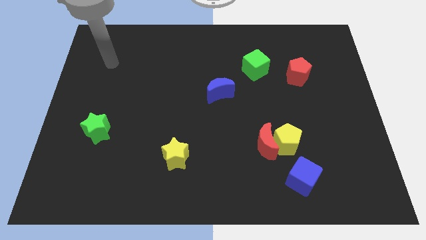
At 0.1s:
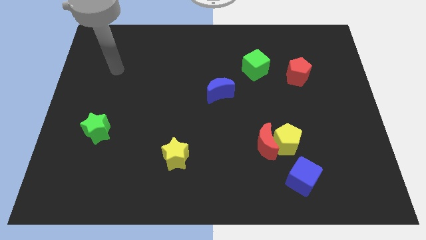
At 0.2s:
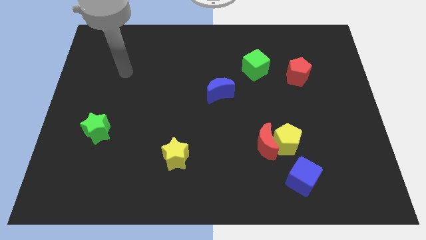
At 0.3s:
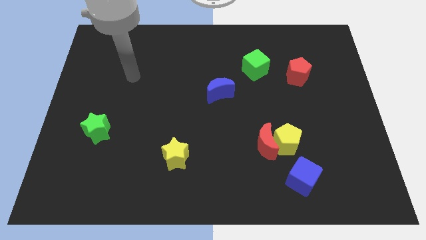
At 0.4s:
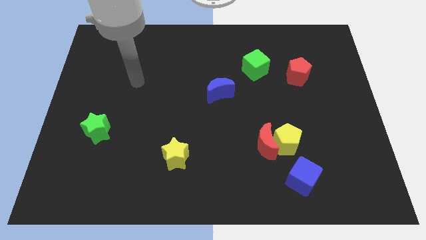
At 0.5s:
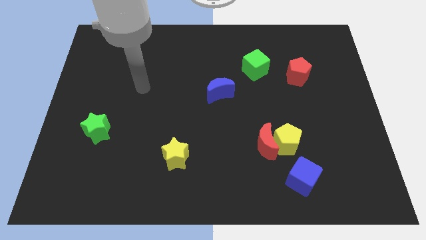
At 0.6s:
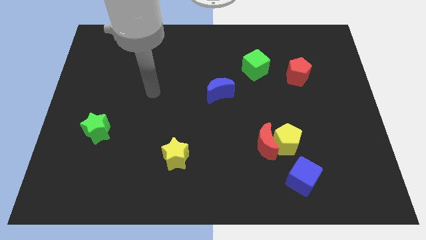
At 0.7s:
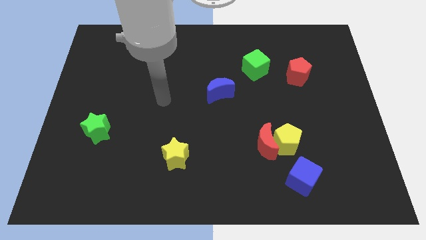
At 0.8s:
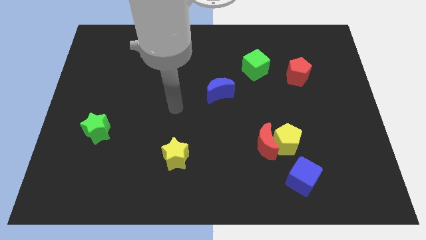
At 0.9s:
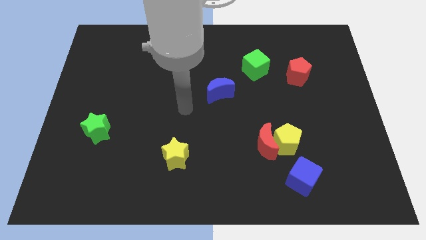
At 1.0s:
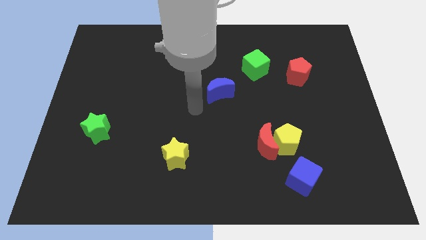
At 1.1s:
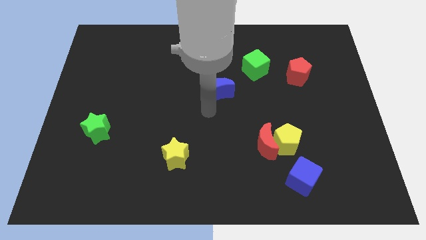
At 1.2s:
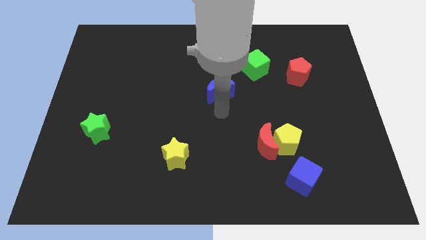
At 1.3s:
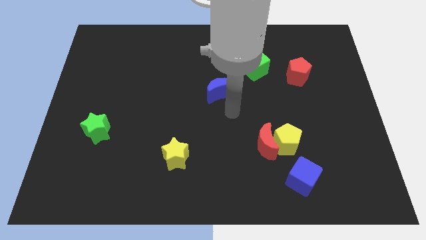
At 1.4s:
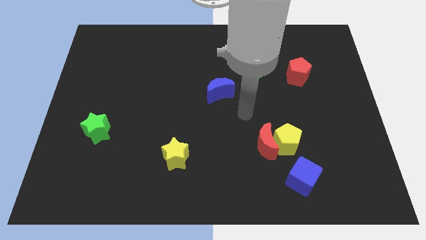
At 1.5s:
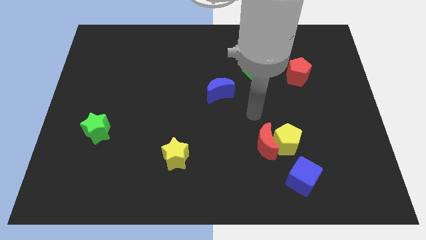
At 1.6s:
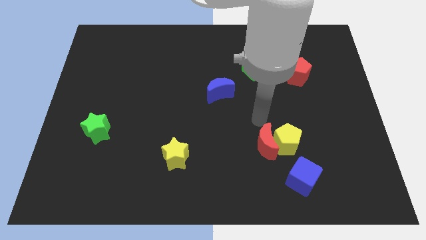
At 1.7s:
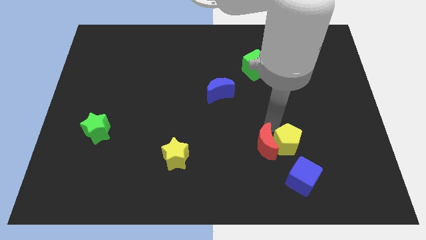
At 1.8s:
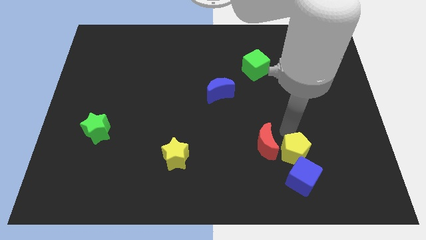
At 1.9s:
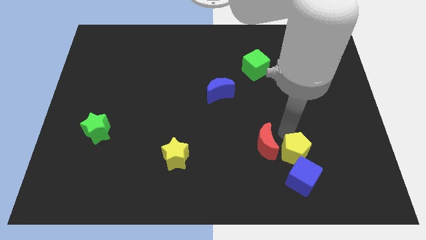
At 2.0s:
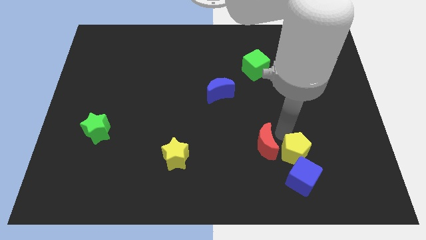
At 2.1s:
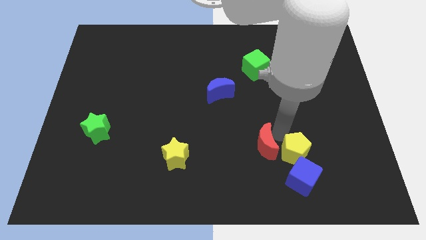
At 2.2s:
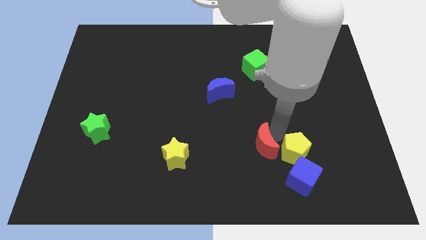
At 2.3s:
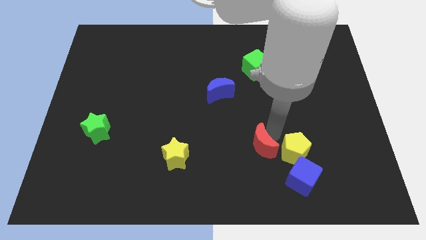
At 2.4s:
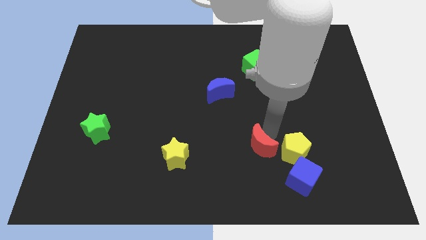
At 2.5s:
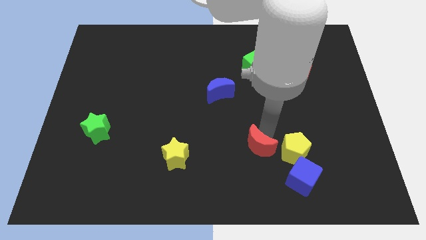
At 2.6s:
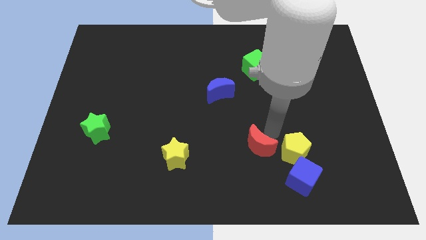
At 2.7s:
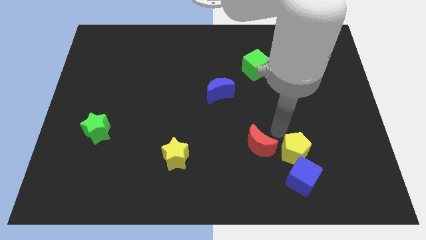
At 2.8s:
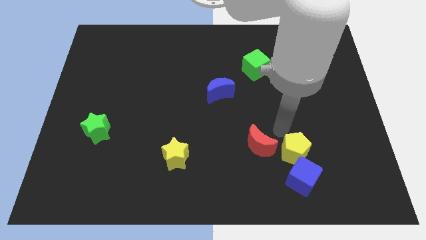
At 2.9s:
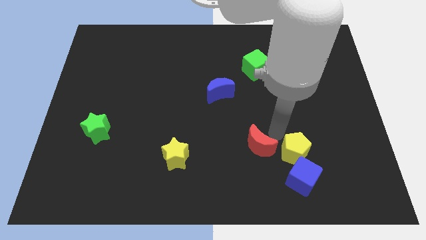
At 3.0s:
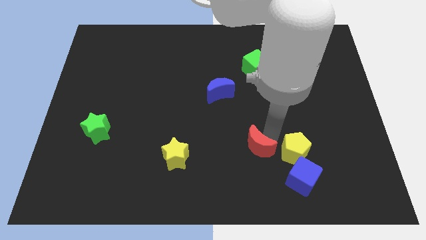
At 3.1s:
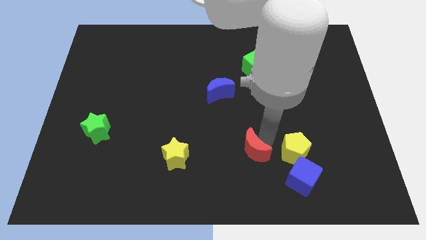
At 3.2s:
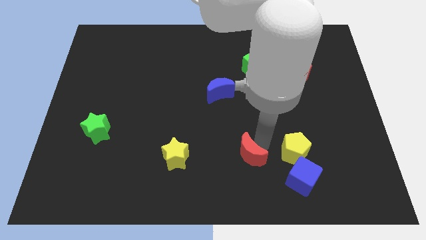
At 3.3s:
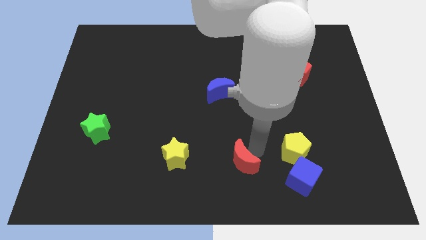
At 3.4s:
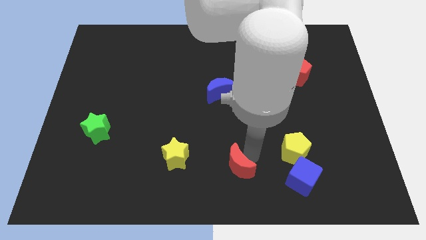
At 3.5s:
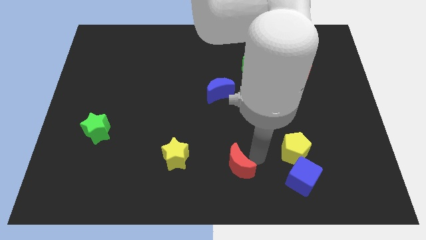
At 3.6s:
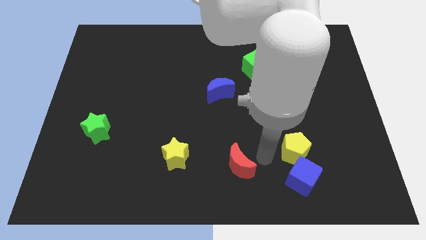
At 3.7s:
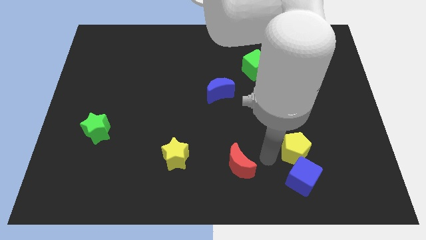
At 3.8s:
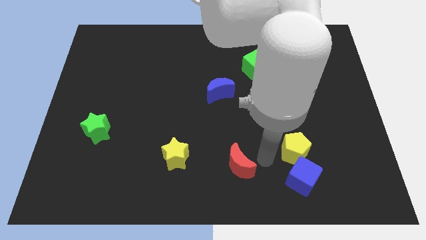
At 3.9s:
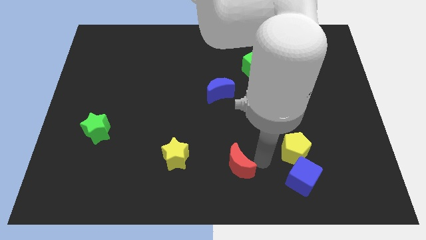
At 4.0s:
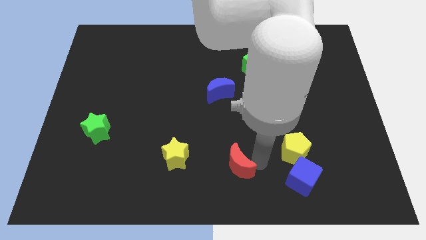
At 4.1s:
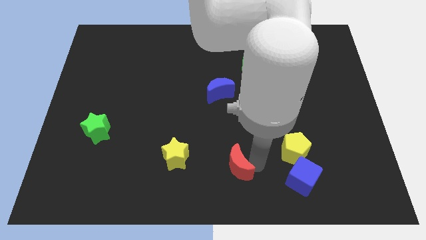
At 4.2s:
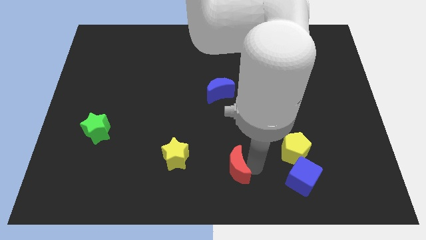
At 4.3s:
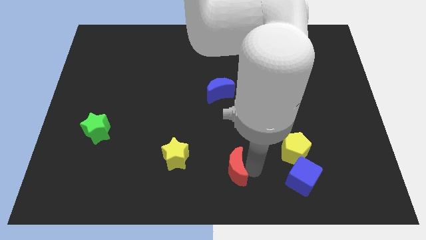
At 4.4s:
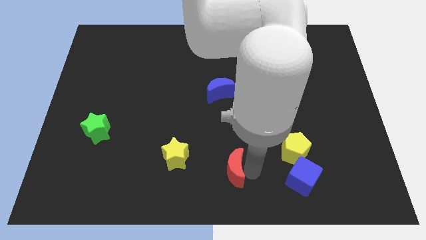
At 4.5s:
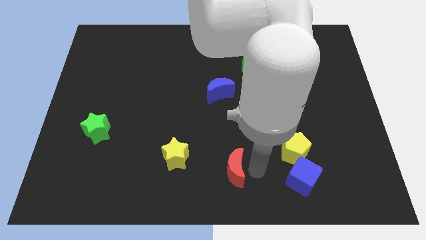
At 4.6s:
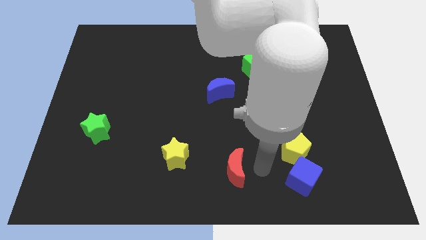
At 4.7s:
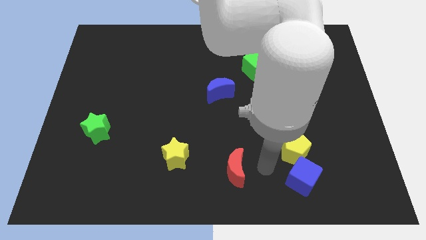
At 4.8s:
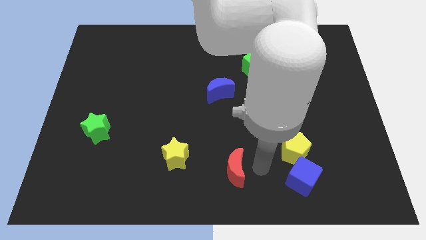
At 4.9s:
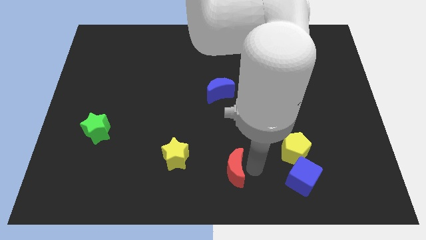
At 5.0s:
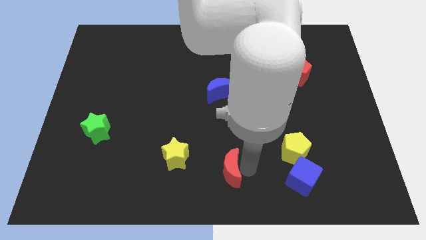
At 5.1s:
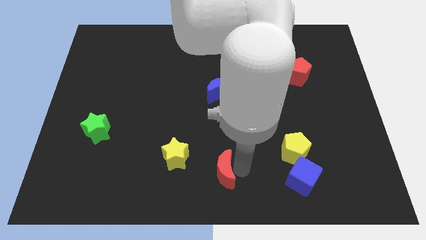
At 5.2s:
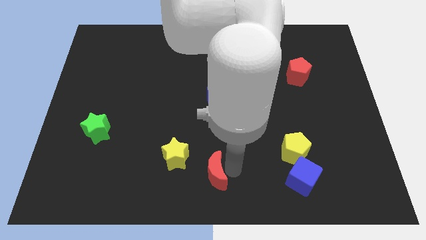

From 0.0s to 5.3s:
push the red moon to the bottom right of the yellow star

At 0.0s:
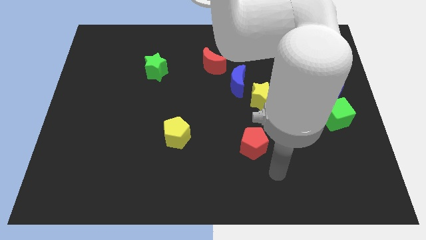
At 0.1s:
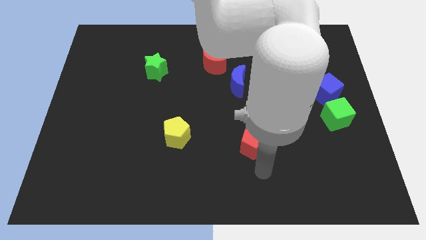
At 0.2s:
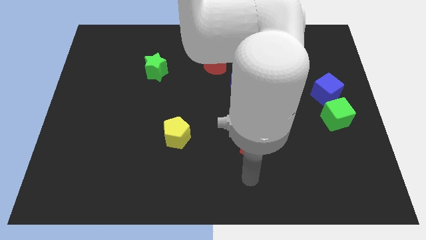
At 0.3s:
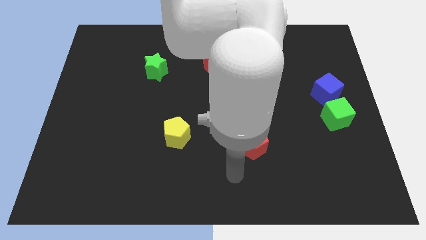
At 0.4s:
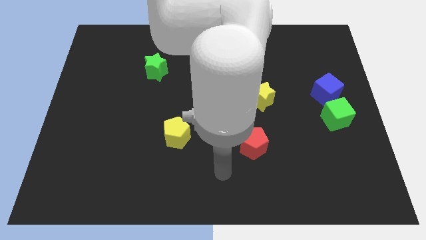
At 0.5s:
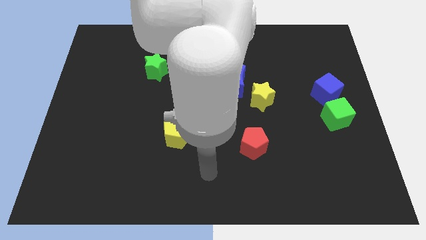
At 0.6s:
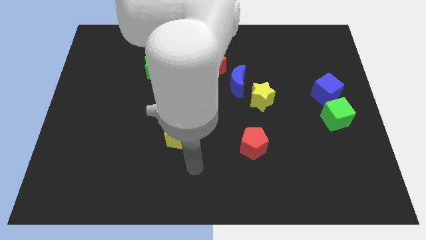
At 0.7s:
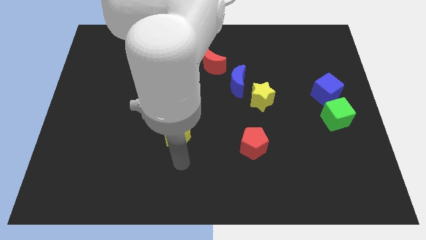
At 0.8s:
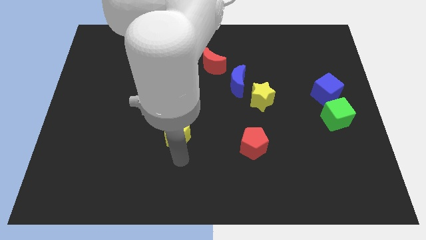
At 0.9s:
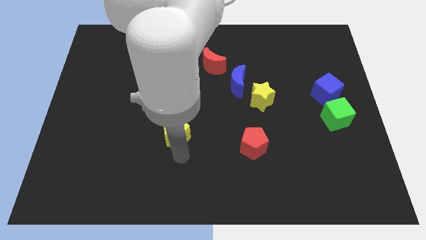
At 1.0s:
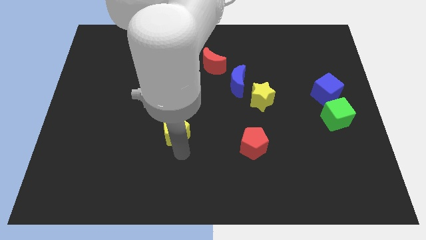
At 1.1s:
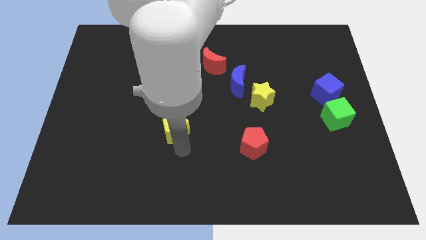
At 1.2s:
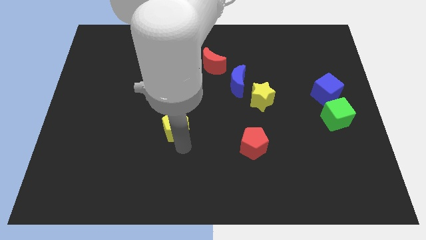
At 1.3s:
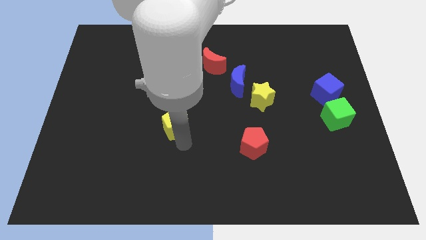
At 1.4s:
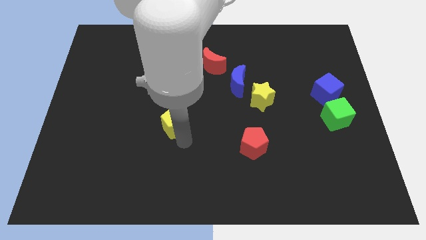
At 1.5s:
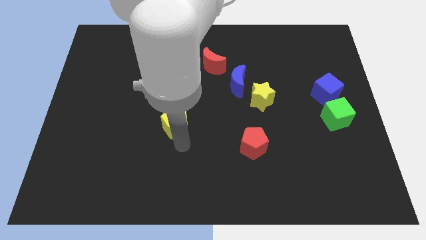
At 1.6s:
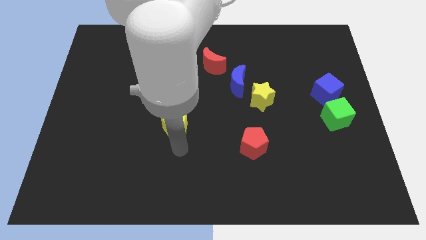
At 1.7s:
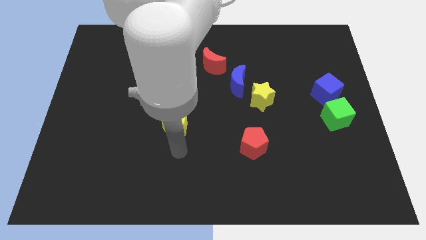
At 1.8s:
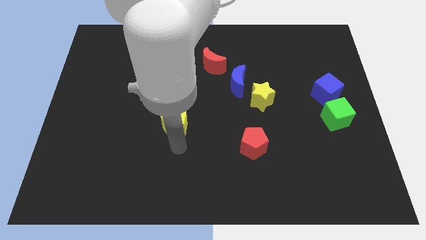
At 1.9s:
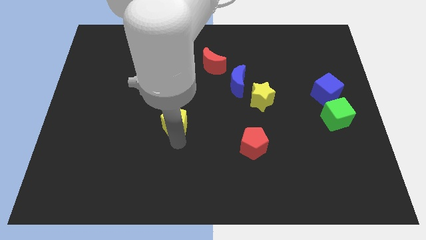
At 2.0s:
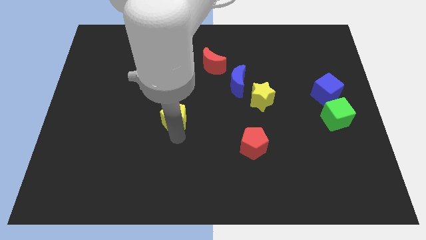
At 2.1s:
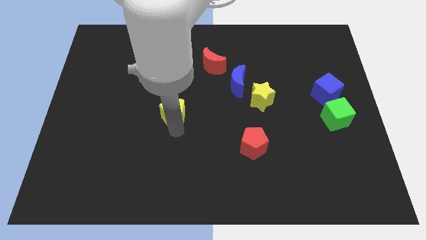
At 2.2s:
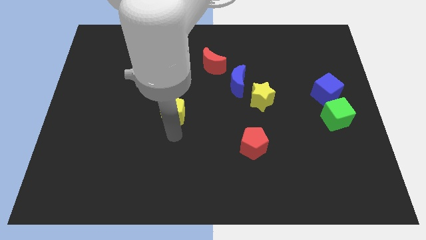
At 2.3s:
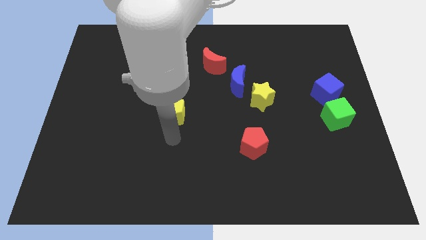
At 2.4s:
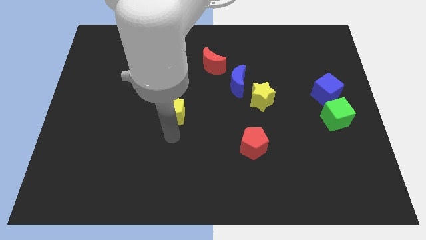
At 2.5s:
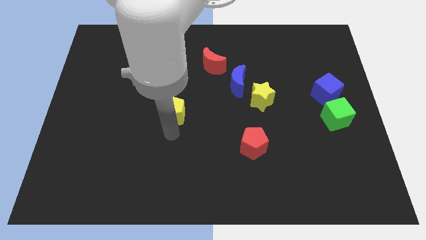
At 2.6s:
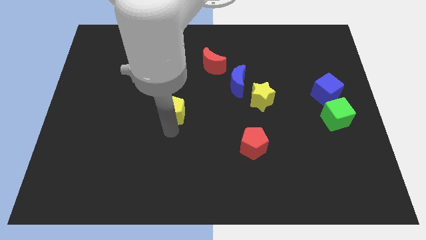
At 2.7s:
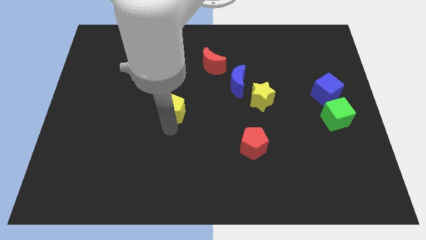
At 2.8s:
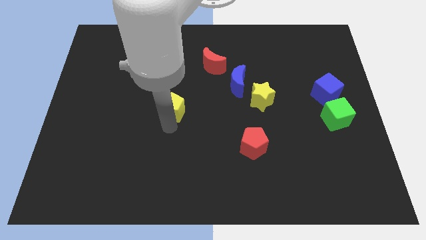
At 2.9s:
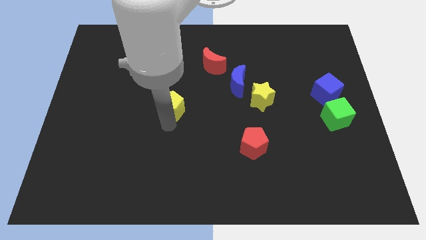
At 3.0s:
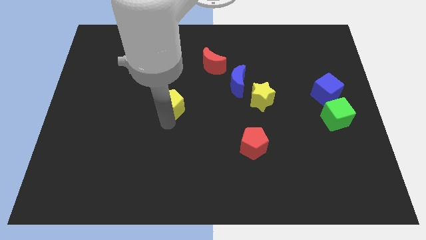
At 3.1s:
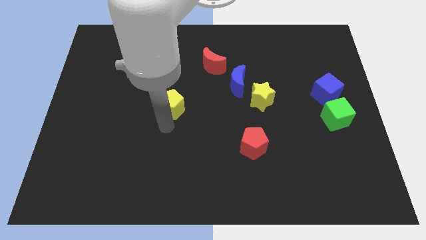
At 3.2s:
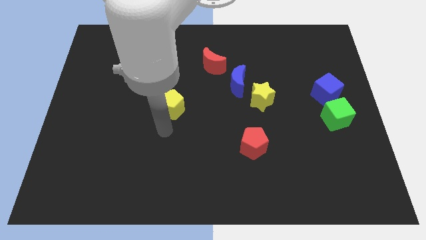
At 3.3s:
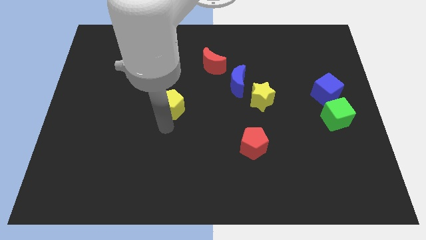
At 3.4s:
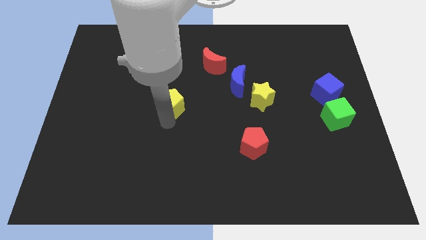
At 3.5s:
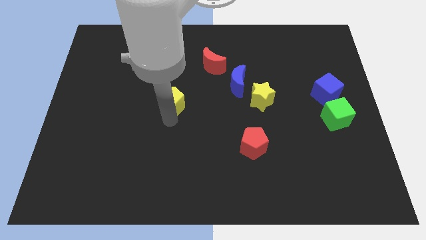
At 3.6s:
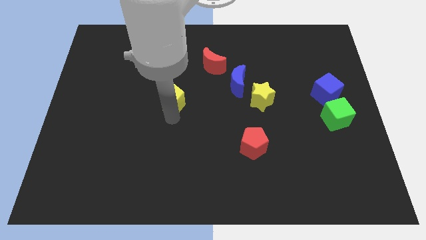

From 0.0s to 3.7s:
push the yellow pentagon diagonally down and to the right of the green star
